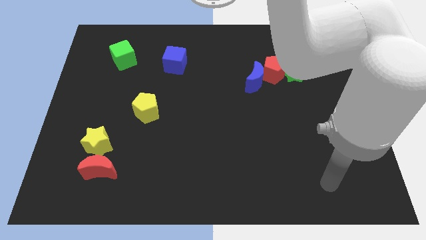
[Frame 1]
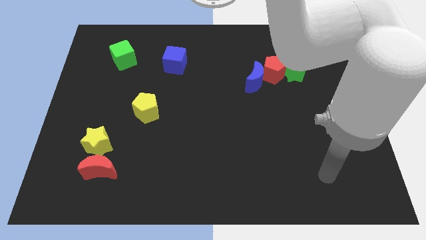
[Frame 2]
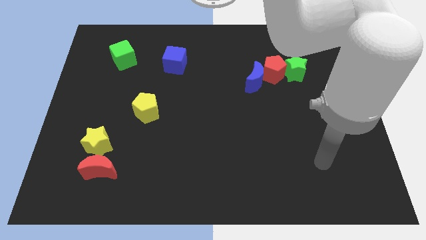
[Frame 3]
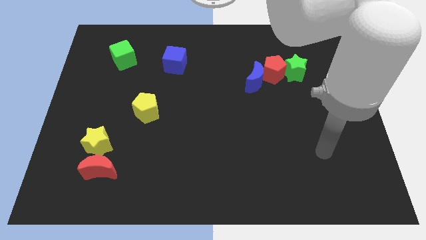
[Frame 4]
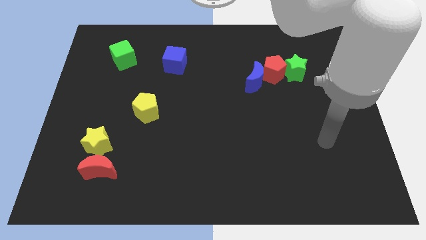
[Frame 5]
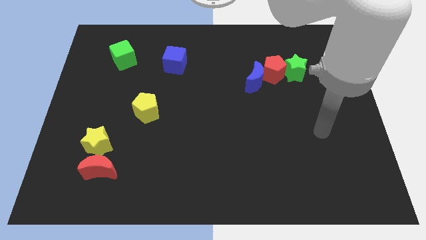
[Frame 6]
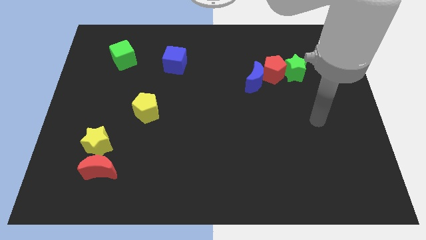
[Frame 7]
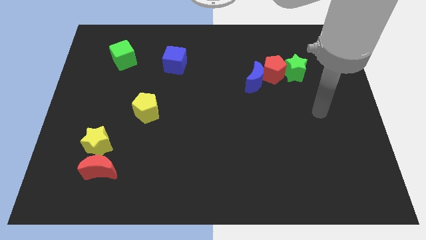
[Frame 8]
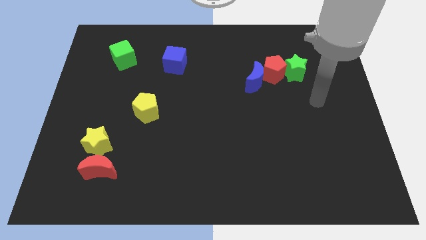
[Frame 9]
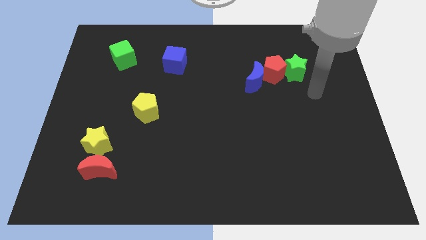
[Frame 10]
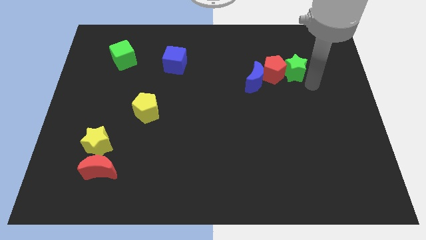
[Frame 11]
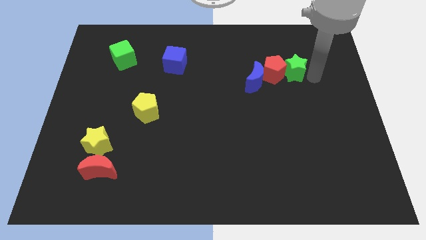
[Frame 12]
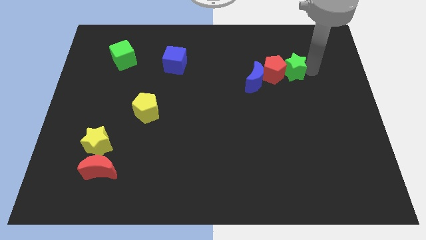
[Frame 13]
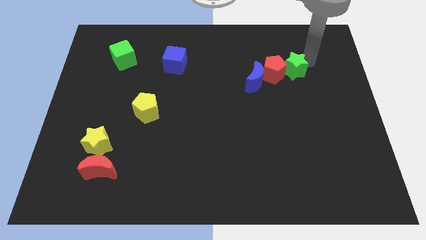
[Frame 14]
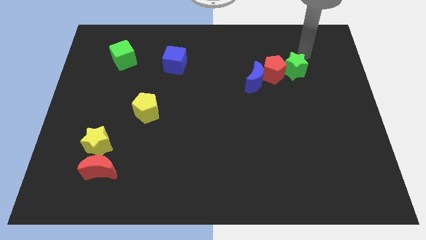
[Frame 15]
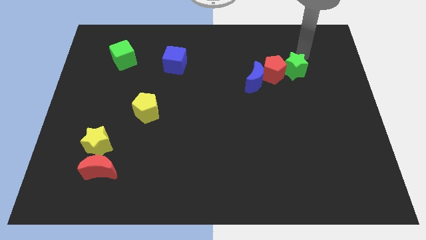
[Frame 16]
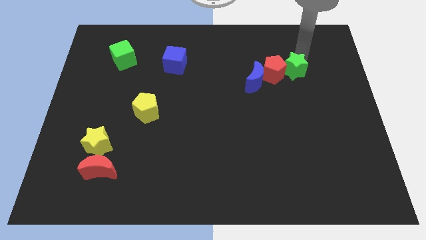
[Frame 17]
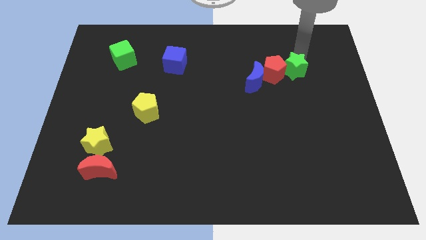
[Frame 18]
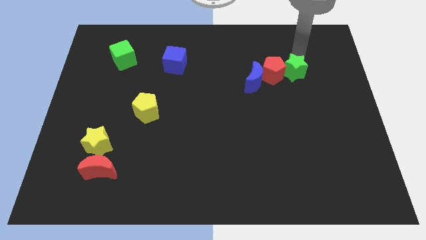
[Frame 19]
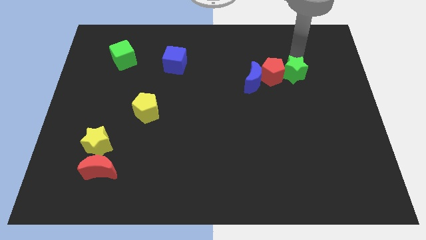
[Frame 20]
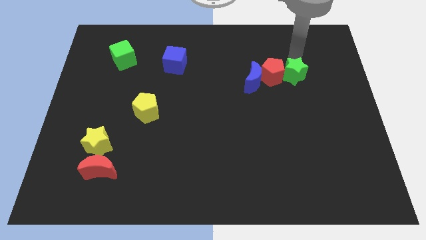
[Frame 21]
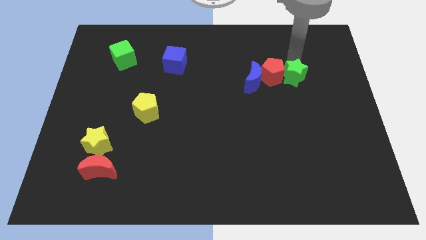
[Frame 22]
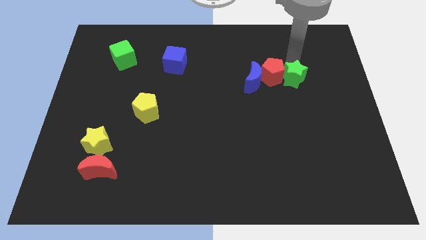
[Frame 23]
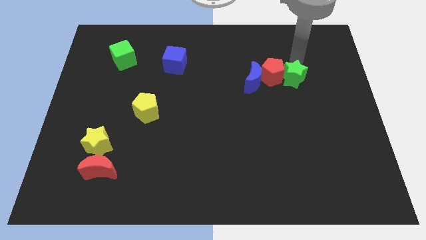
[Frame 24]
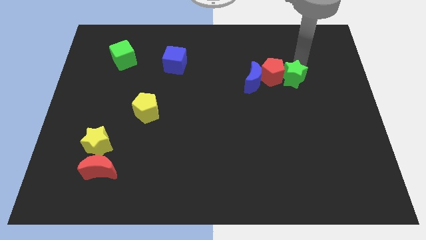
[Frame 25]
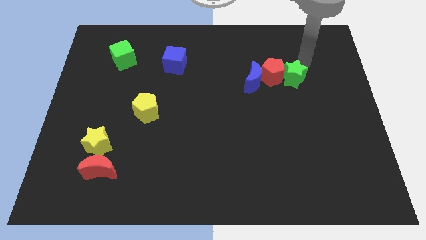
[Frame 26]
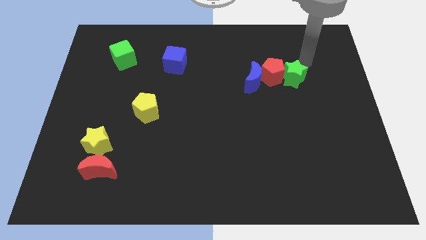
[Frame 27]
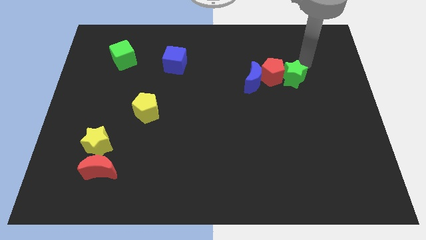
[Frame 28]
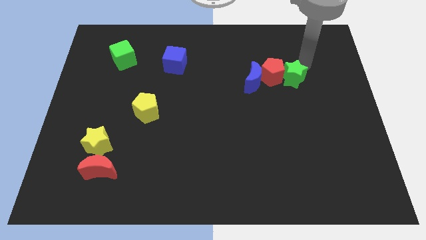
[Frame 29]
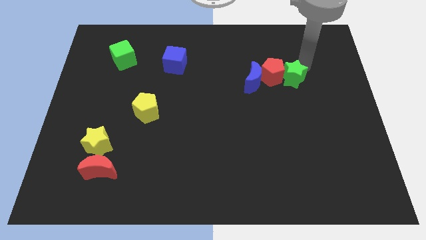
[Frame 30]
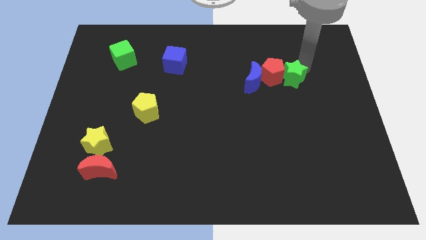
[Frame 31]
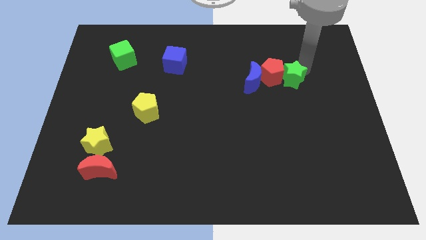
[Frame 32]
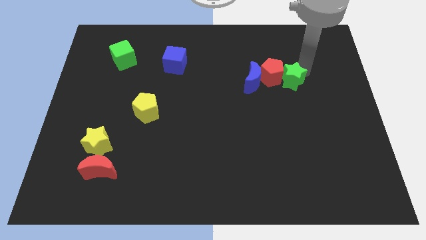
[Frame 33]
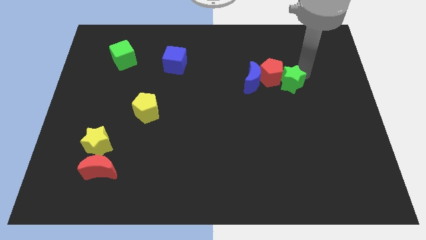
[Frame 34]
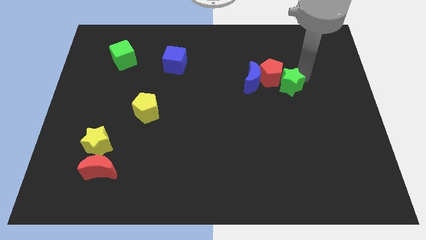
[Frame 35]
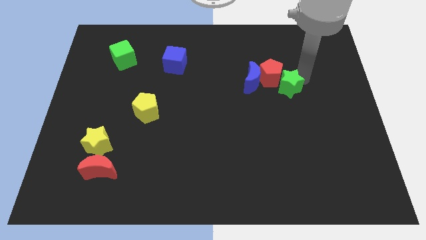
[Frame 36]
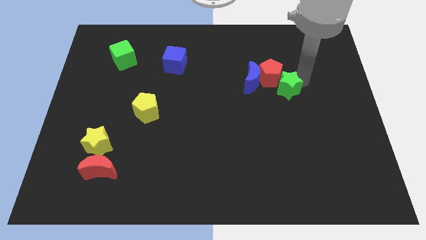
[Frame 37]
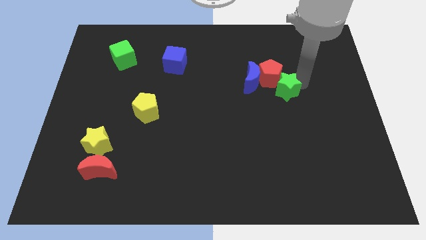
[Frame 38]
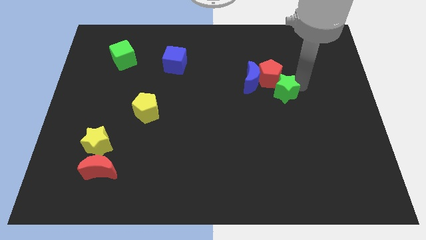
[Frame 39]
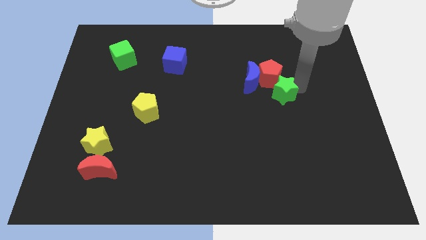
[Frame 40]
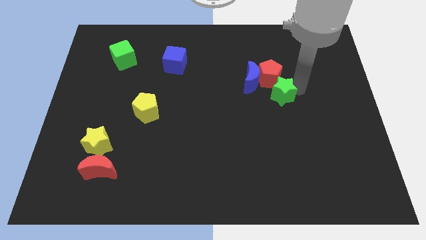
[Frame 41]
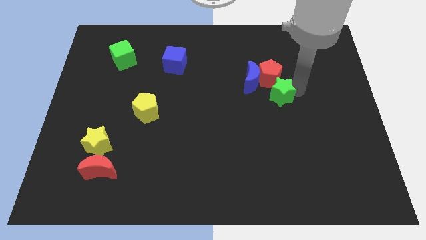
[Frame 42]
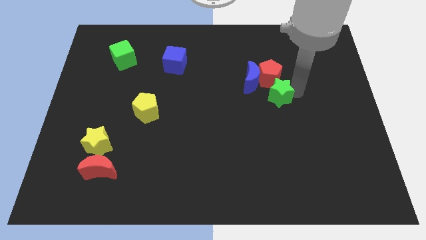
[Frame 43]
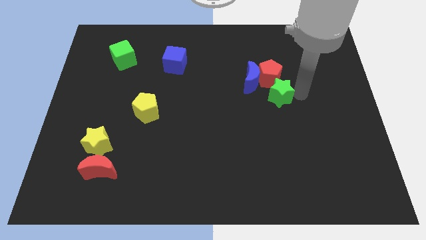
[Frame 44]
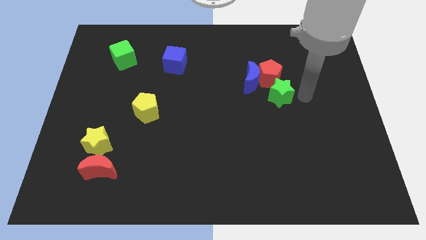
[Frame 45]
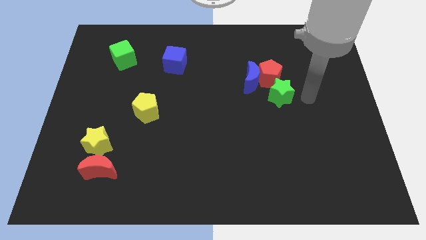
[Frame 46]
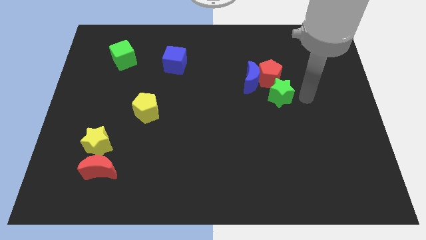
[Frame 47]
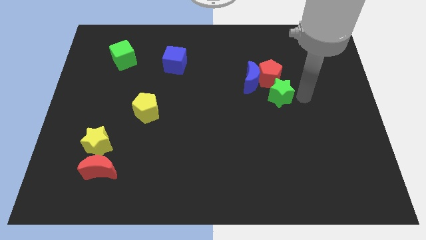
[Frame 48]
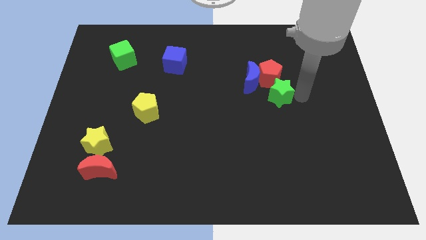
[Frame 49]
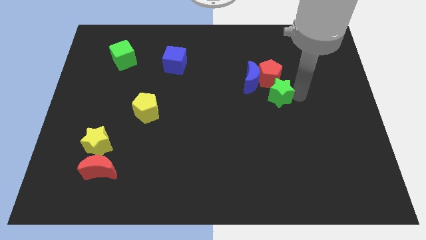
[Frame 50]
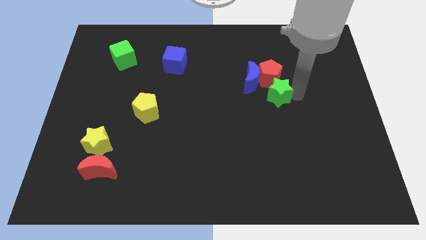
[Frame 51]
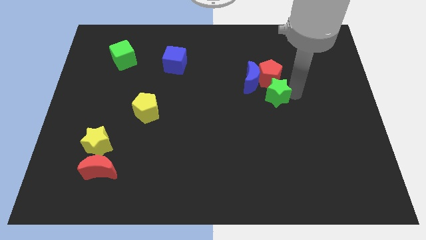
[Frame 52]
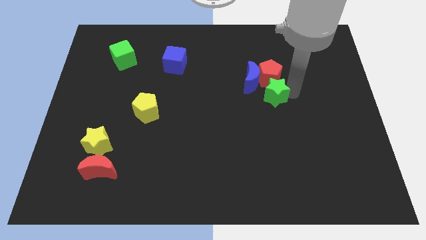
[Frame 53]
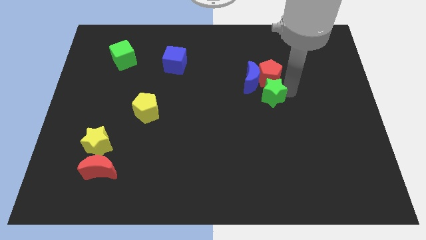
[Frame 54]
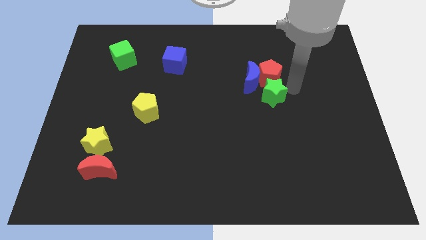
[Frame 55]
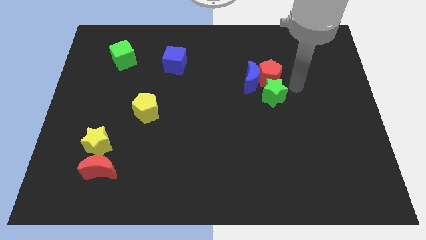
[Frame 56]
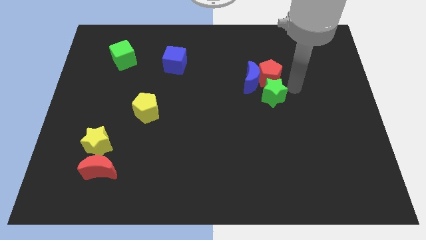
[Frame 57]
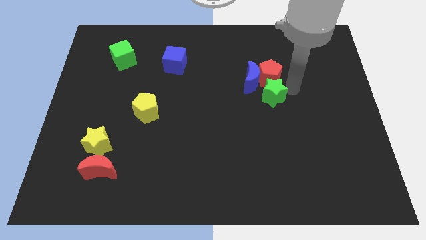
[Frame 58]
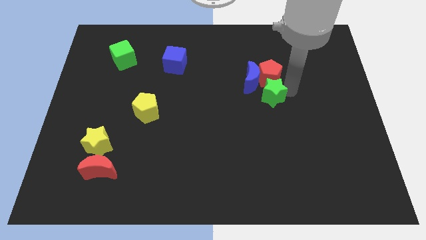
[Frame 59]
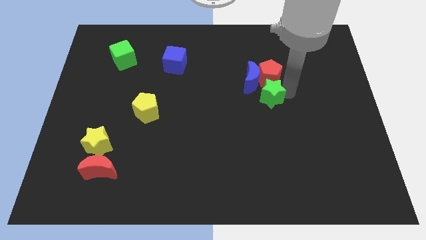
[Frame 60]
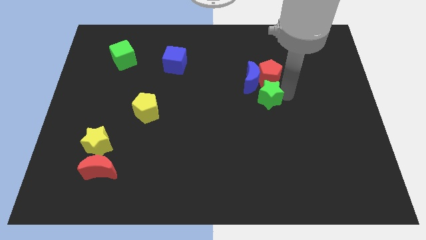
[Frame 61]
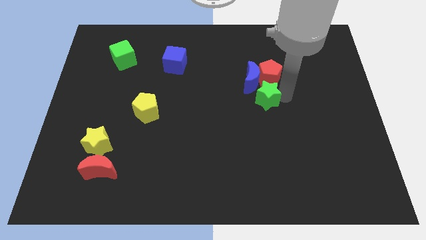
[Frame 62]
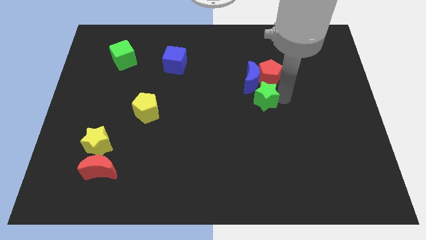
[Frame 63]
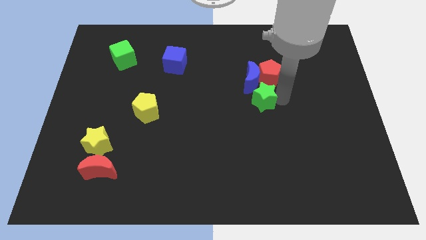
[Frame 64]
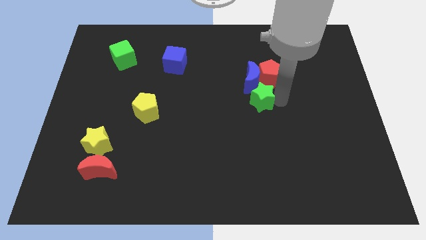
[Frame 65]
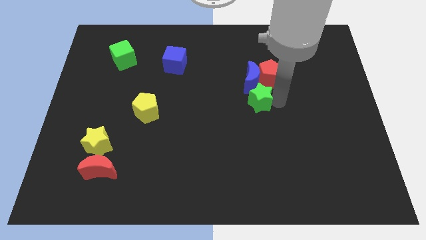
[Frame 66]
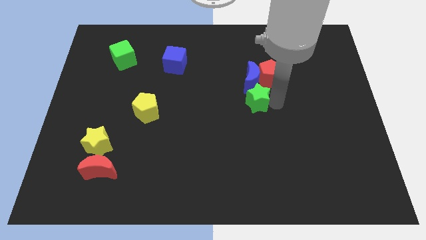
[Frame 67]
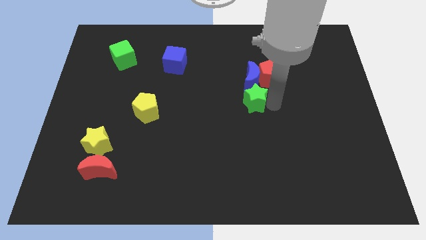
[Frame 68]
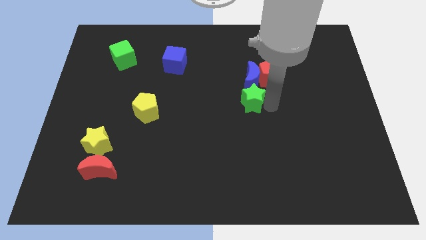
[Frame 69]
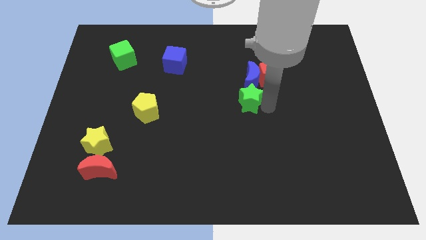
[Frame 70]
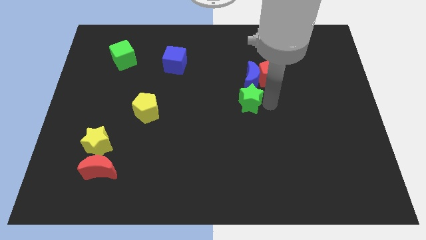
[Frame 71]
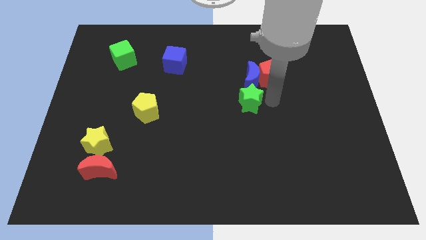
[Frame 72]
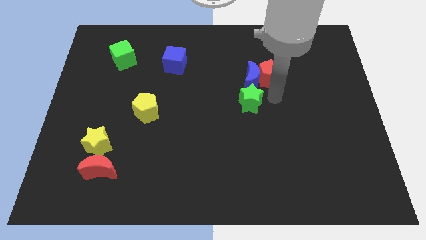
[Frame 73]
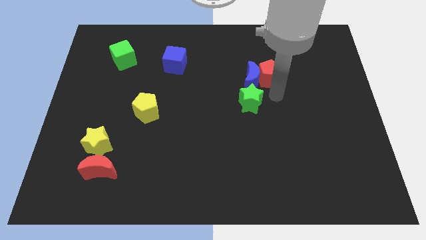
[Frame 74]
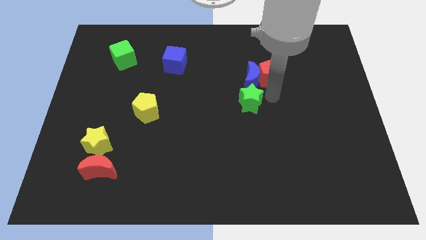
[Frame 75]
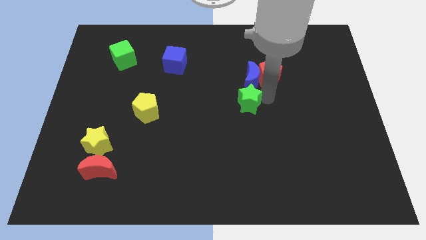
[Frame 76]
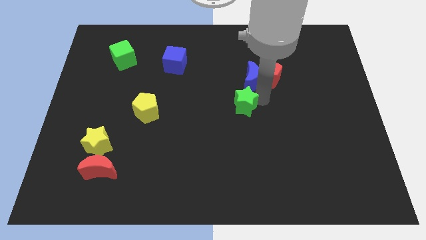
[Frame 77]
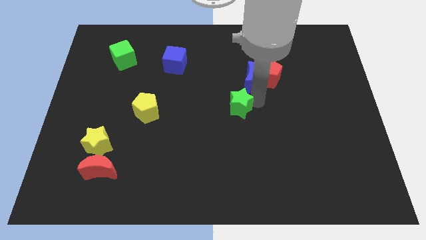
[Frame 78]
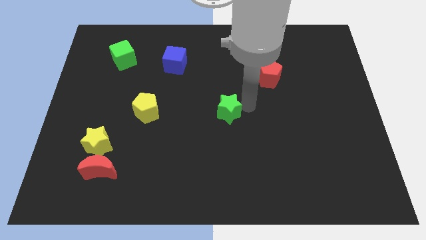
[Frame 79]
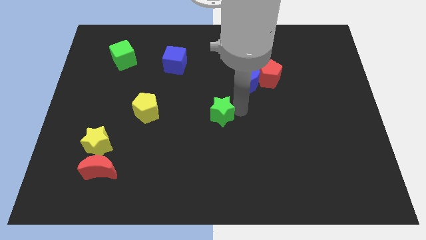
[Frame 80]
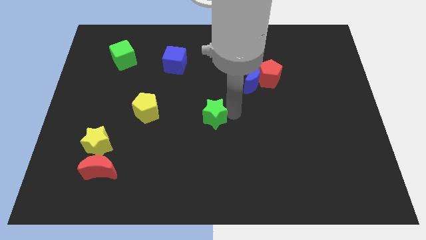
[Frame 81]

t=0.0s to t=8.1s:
put the green star just right of the yellow pentagon
